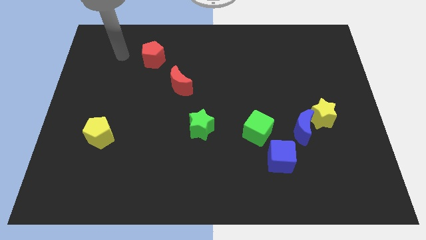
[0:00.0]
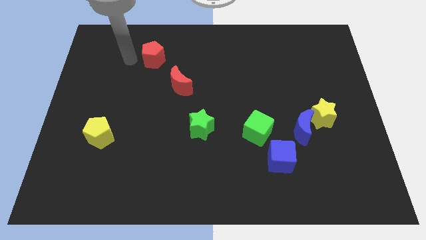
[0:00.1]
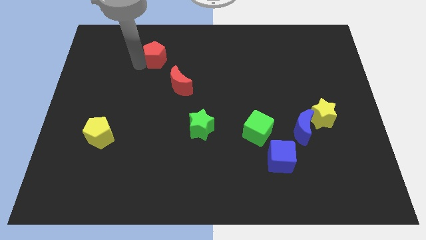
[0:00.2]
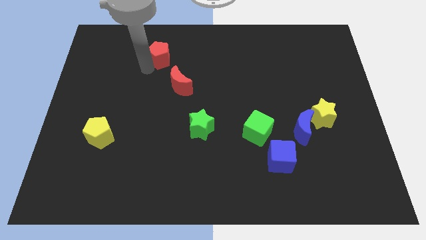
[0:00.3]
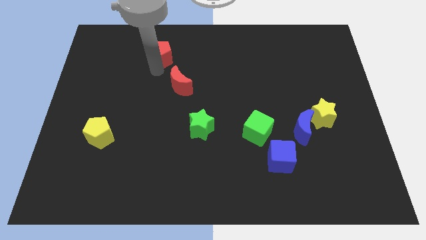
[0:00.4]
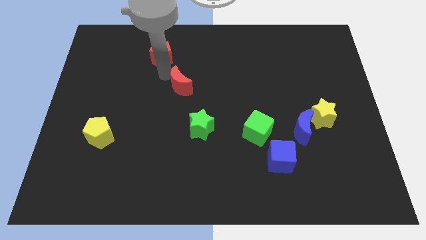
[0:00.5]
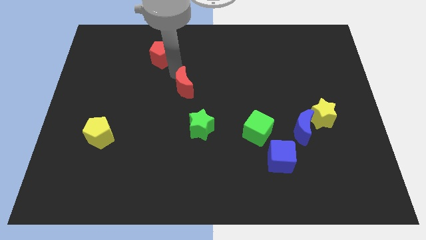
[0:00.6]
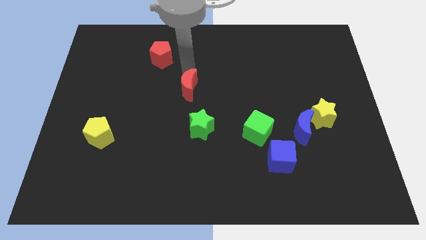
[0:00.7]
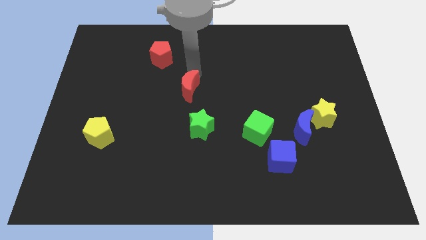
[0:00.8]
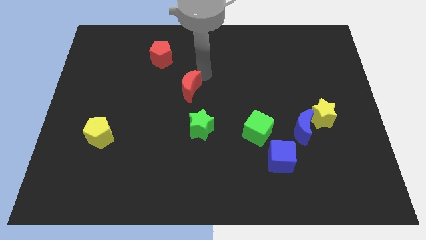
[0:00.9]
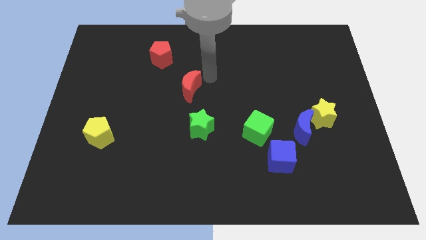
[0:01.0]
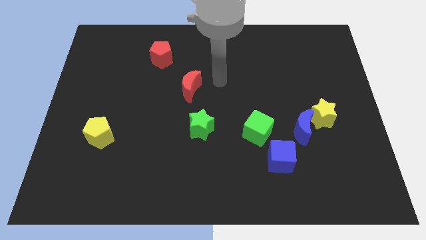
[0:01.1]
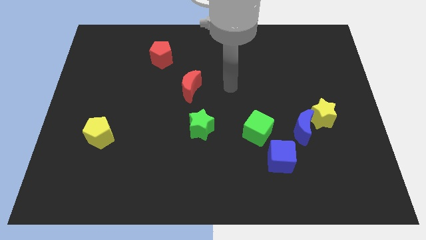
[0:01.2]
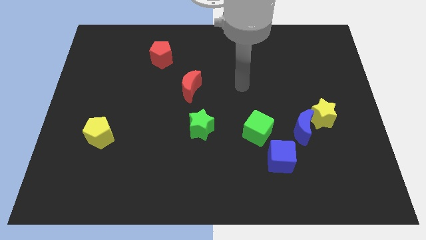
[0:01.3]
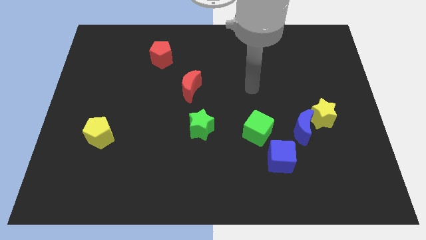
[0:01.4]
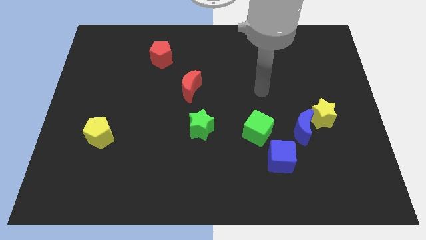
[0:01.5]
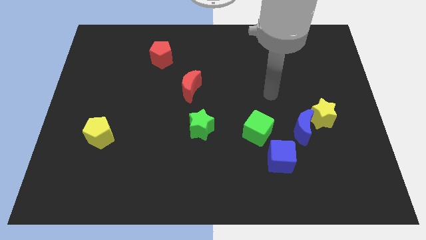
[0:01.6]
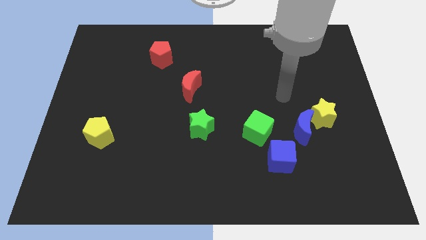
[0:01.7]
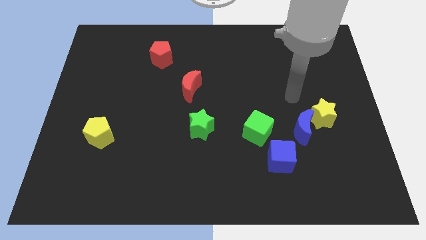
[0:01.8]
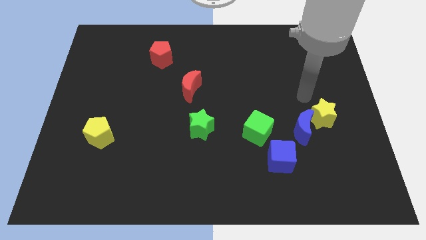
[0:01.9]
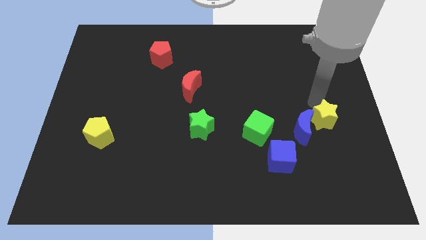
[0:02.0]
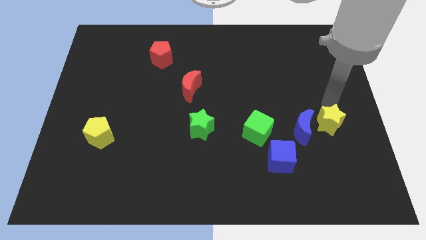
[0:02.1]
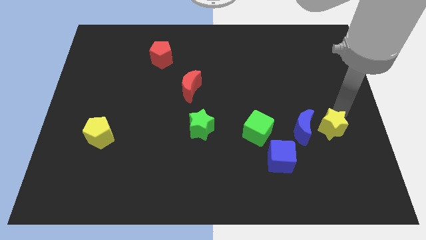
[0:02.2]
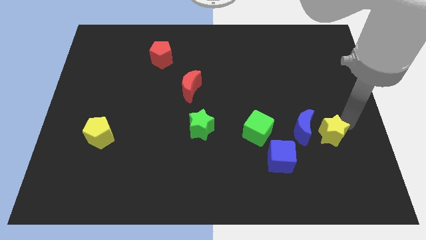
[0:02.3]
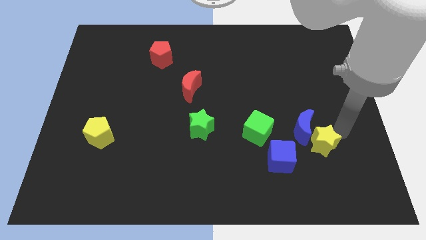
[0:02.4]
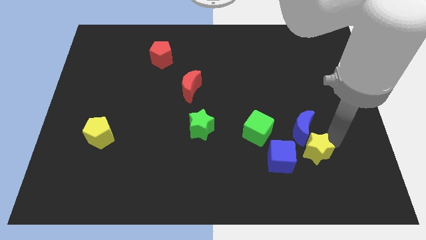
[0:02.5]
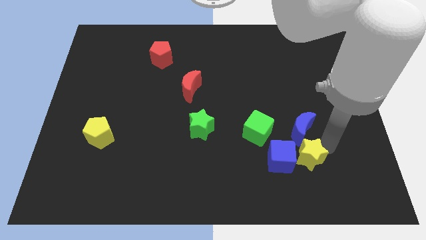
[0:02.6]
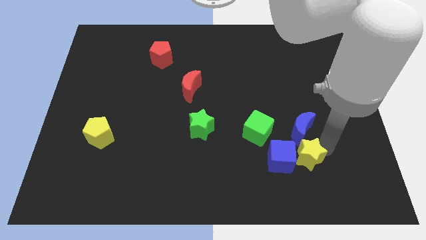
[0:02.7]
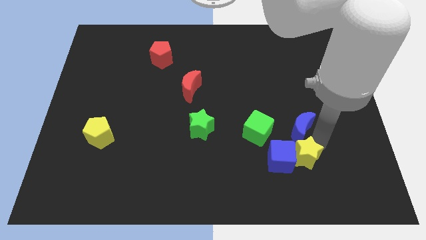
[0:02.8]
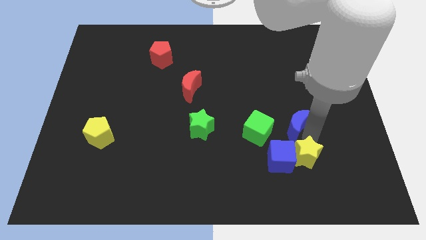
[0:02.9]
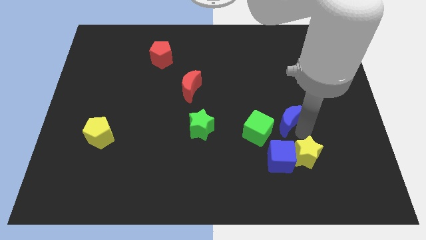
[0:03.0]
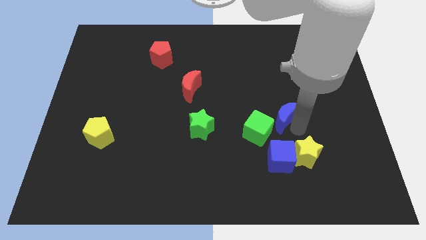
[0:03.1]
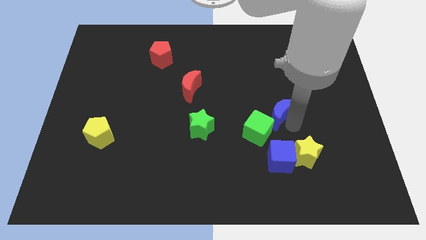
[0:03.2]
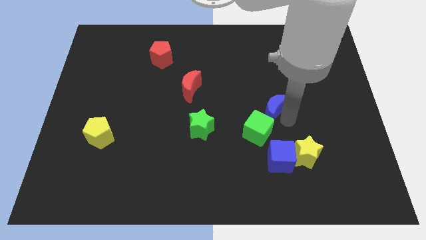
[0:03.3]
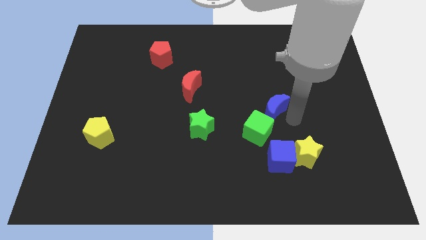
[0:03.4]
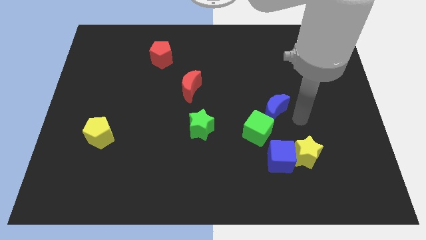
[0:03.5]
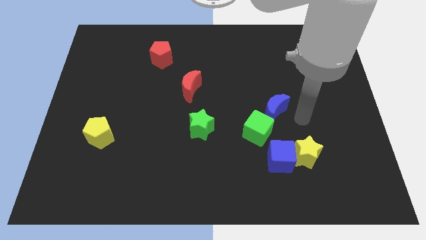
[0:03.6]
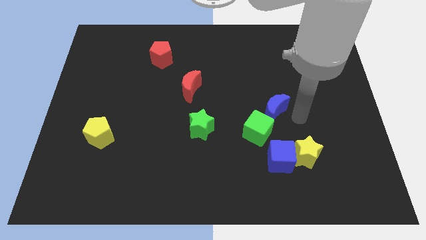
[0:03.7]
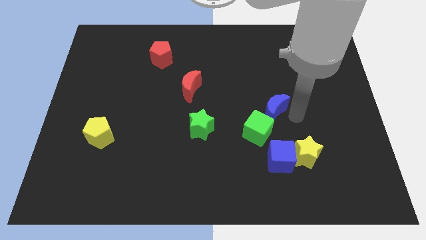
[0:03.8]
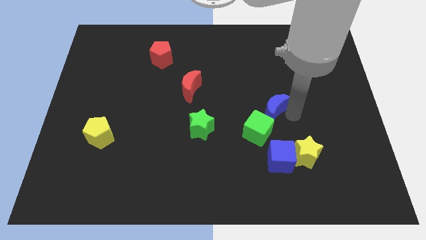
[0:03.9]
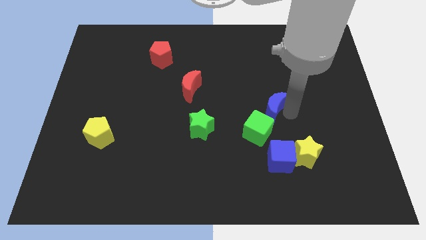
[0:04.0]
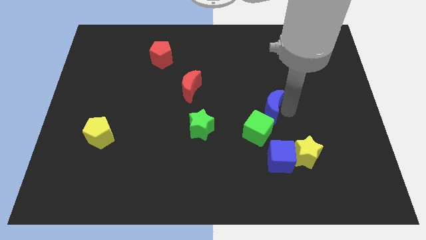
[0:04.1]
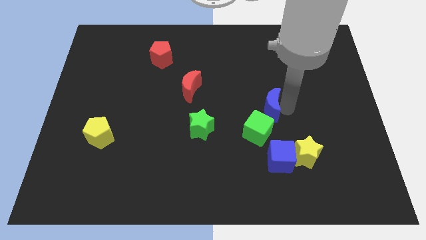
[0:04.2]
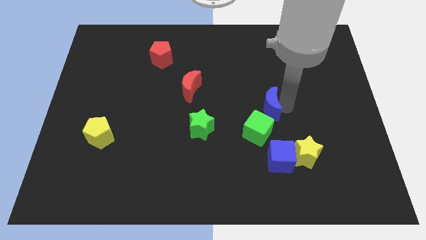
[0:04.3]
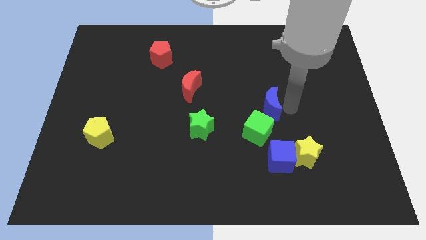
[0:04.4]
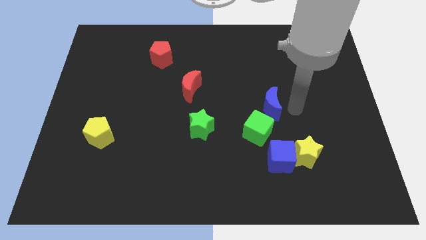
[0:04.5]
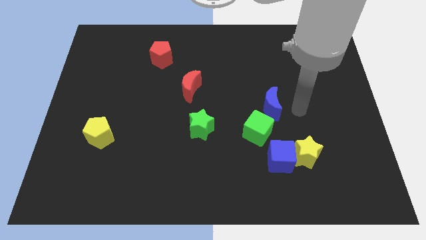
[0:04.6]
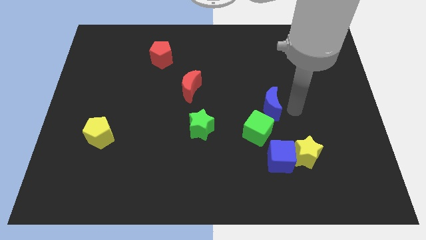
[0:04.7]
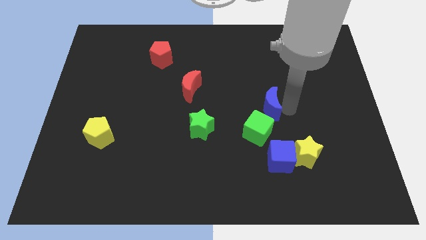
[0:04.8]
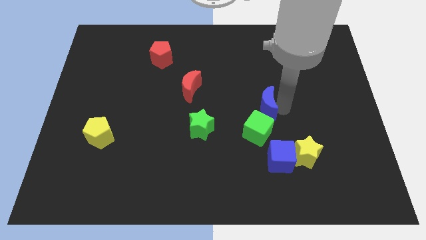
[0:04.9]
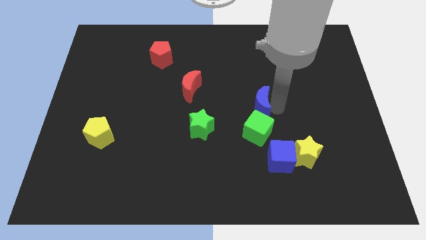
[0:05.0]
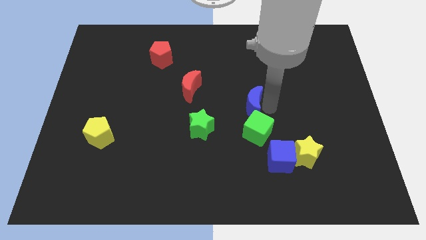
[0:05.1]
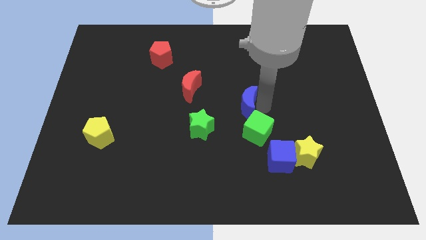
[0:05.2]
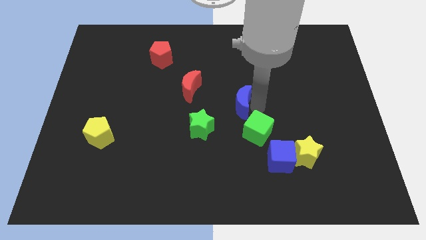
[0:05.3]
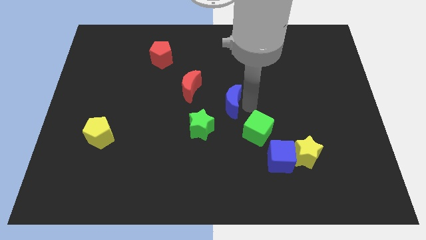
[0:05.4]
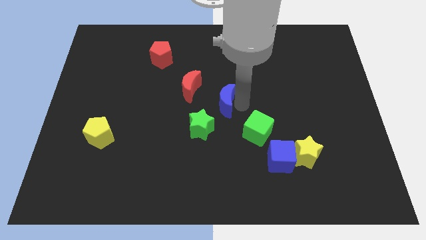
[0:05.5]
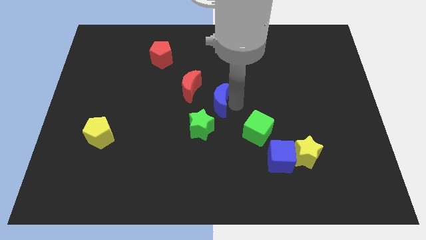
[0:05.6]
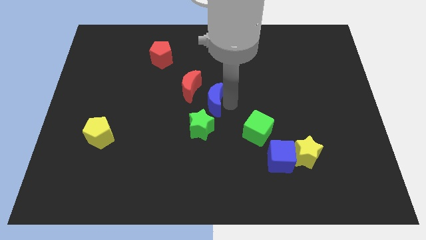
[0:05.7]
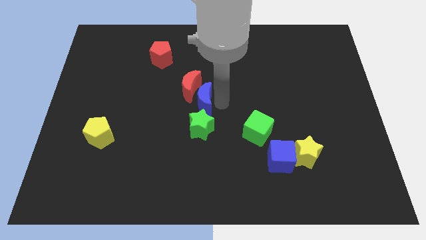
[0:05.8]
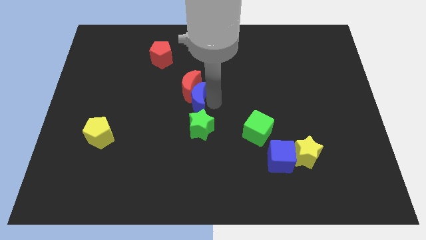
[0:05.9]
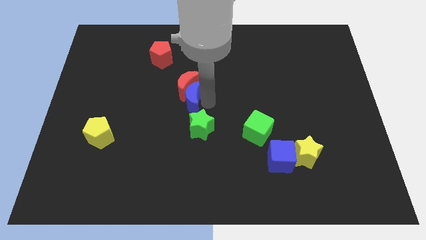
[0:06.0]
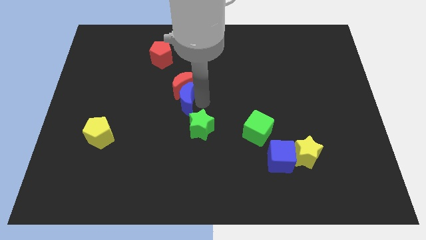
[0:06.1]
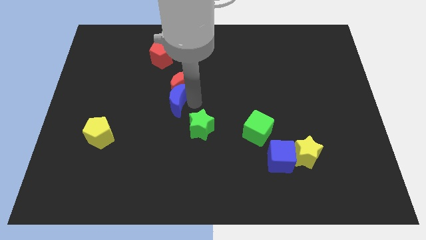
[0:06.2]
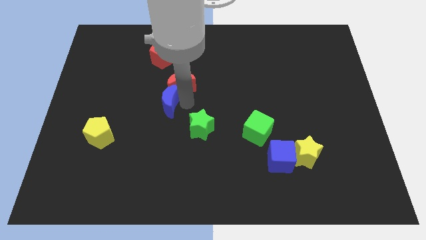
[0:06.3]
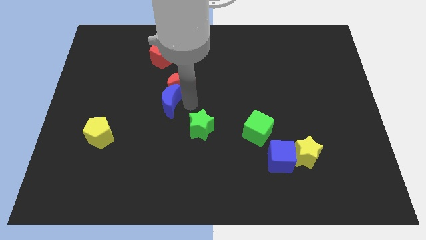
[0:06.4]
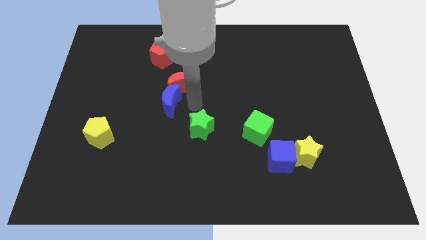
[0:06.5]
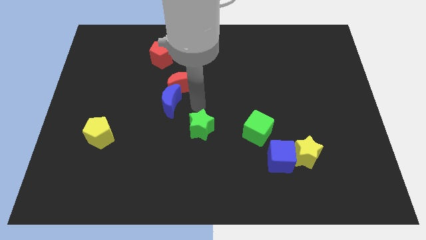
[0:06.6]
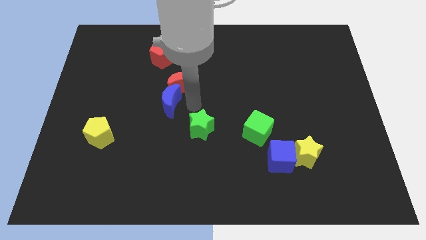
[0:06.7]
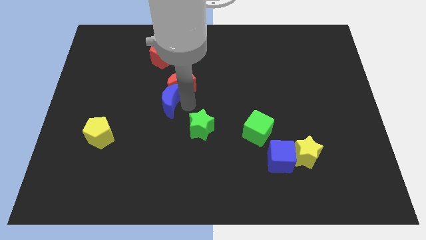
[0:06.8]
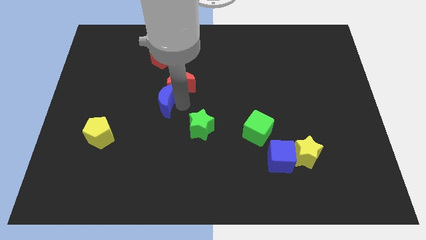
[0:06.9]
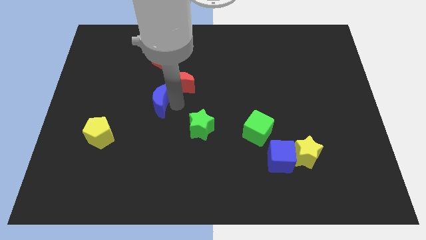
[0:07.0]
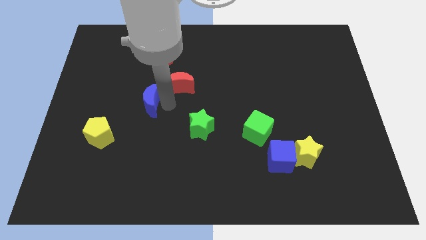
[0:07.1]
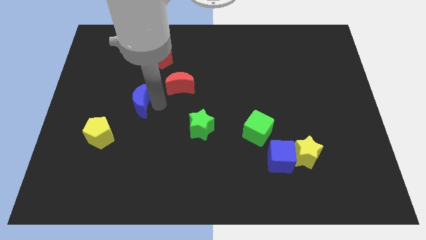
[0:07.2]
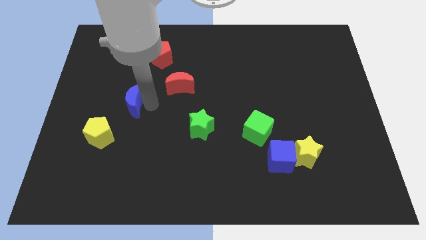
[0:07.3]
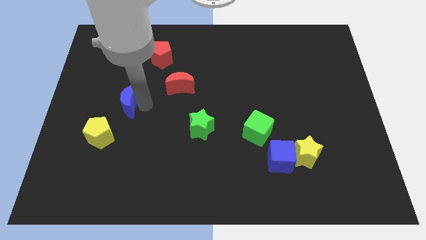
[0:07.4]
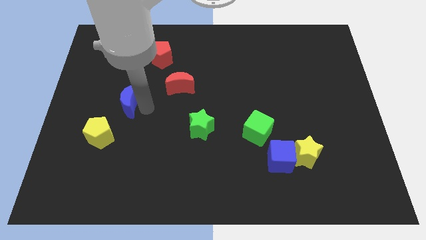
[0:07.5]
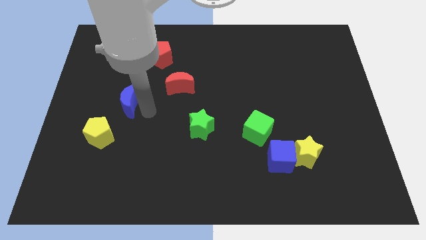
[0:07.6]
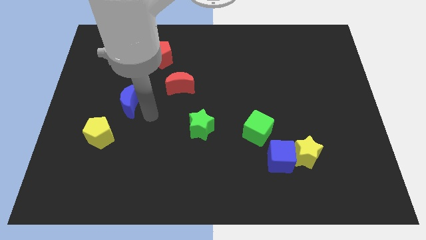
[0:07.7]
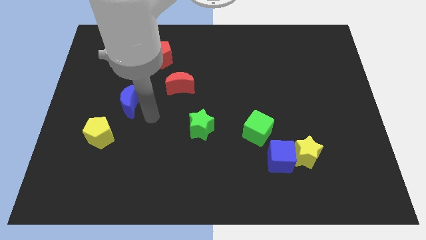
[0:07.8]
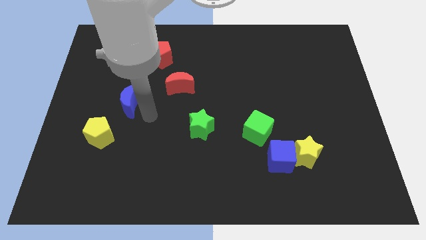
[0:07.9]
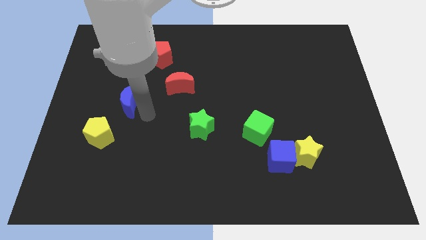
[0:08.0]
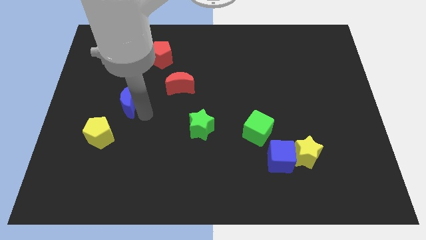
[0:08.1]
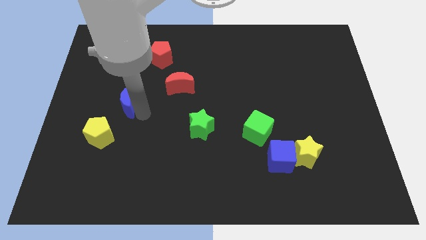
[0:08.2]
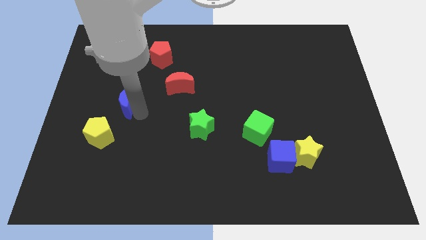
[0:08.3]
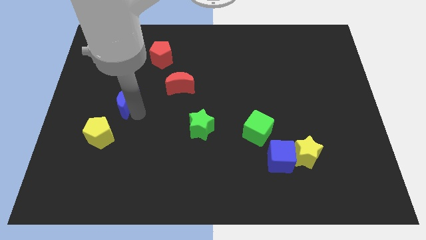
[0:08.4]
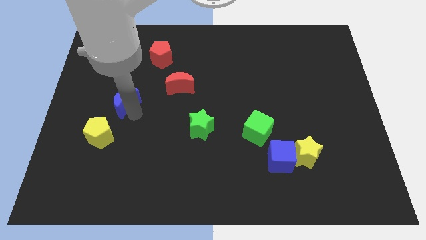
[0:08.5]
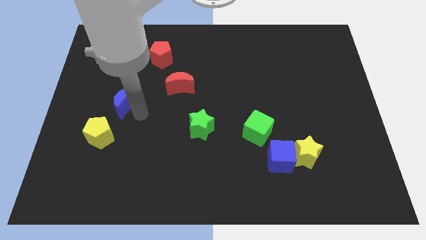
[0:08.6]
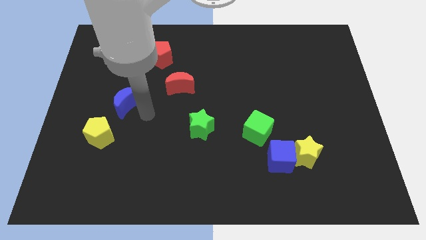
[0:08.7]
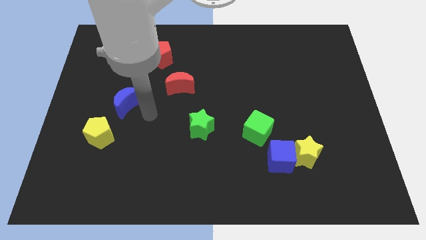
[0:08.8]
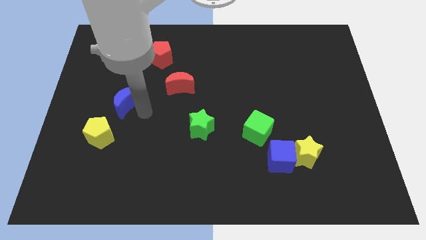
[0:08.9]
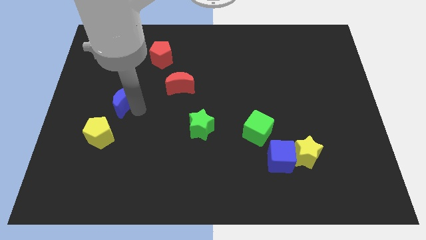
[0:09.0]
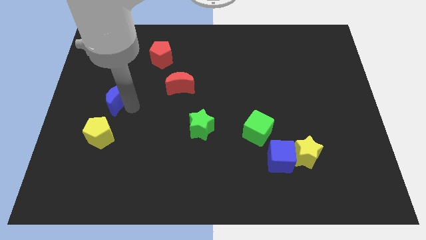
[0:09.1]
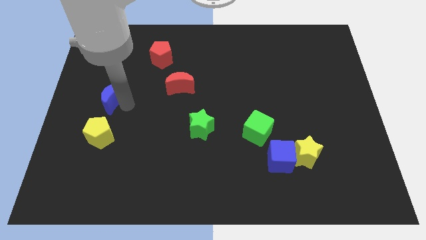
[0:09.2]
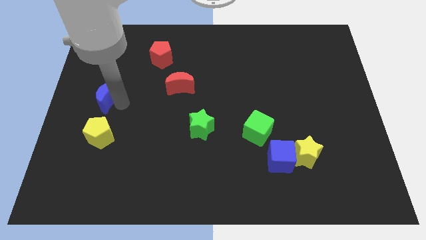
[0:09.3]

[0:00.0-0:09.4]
push the blue moon to the center left
